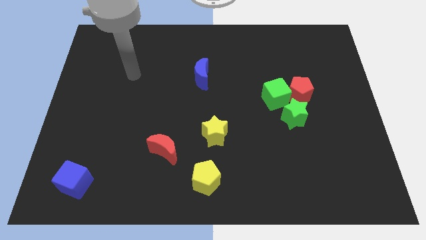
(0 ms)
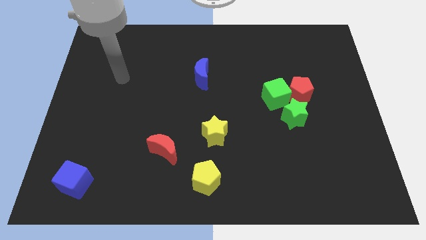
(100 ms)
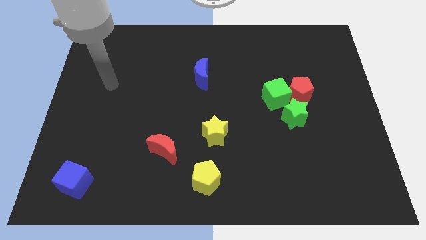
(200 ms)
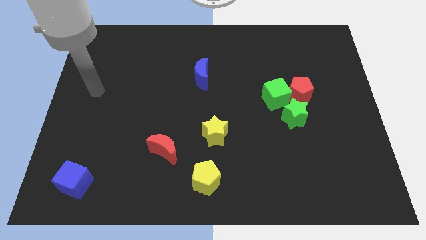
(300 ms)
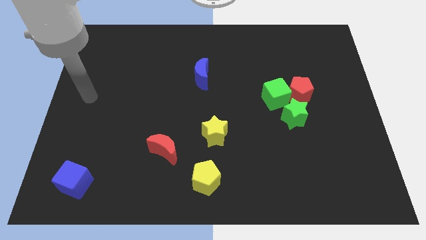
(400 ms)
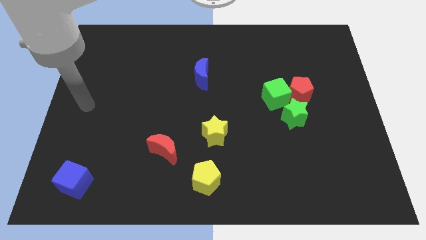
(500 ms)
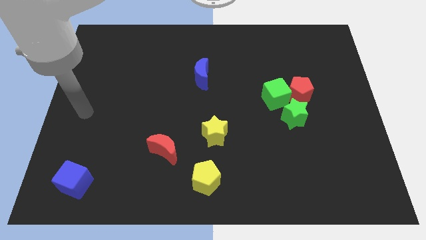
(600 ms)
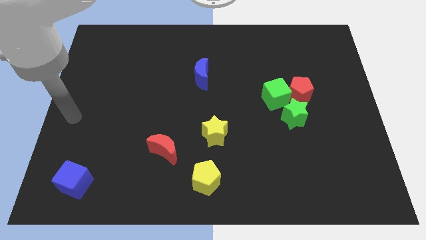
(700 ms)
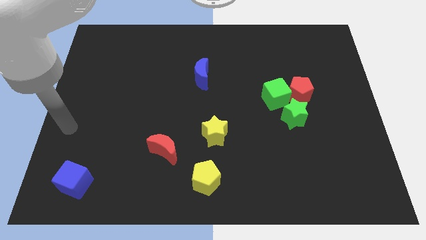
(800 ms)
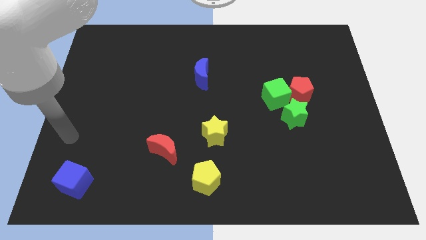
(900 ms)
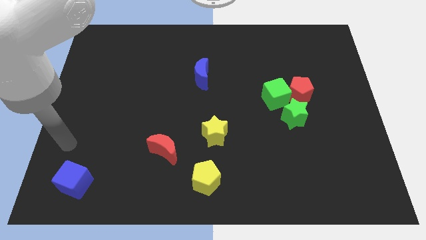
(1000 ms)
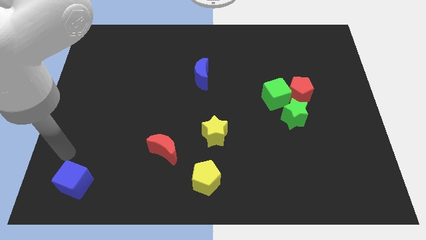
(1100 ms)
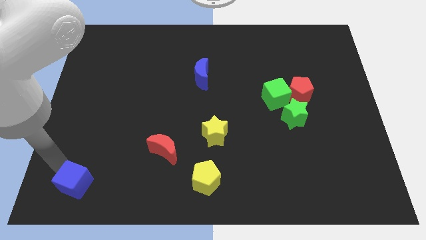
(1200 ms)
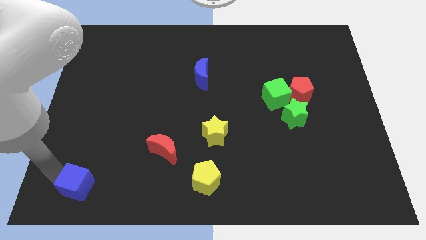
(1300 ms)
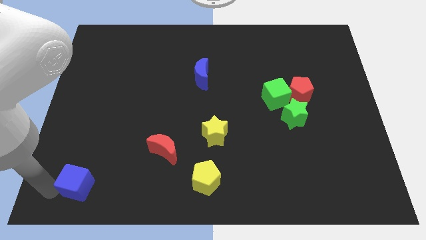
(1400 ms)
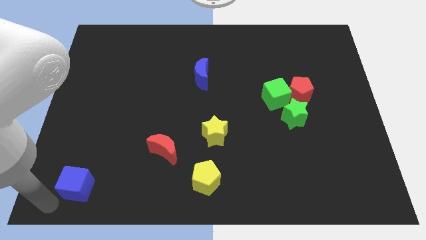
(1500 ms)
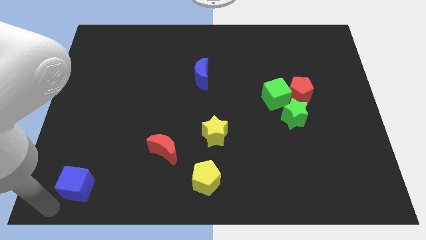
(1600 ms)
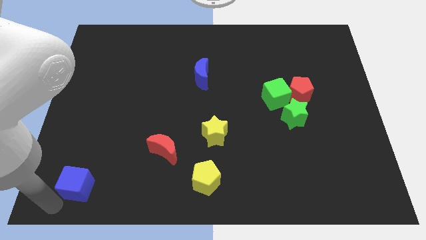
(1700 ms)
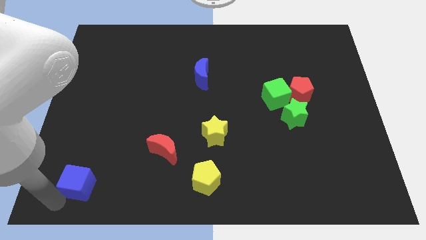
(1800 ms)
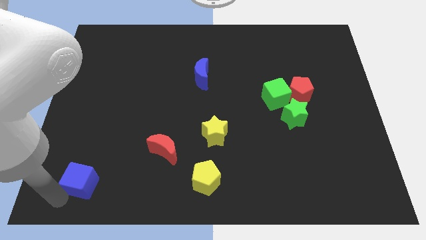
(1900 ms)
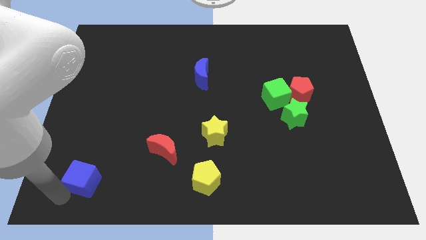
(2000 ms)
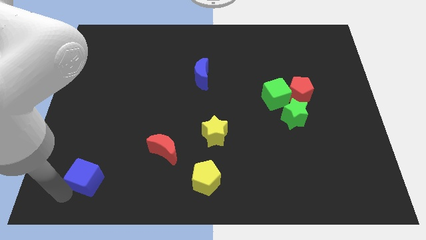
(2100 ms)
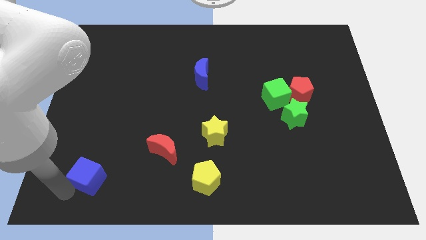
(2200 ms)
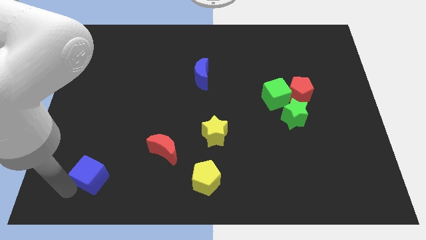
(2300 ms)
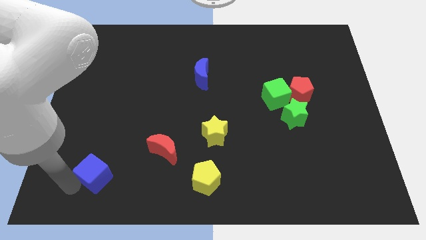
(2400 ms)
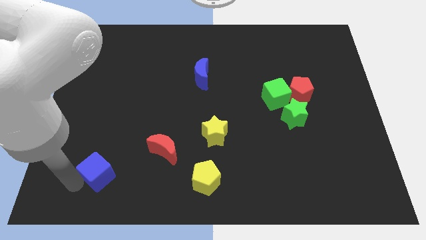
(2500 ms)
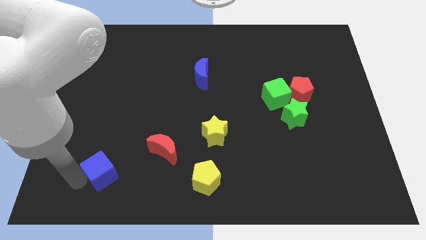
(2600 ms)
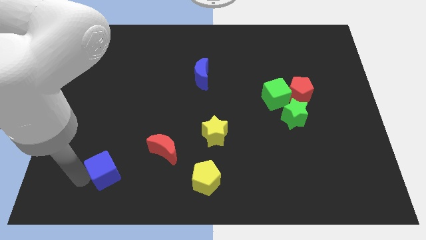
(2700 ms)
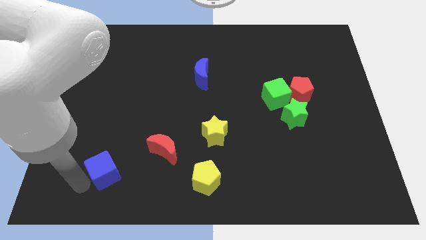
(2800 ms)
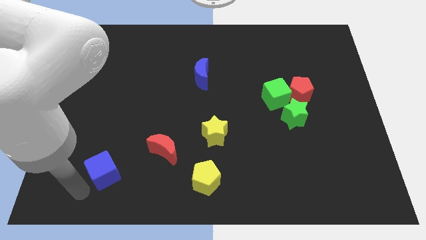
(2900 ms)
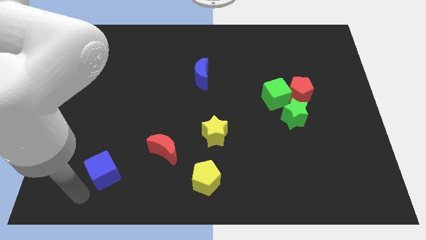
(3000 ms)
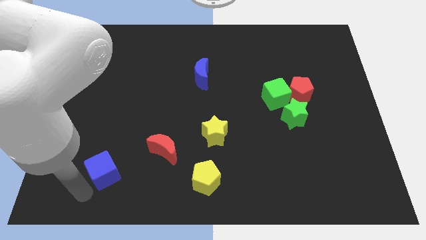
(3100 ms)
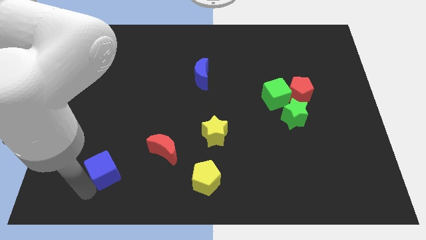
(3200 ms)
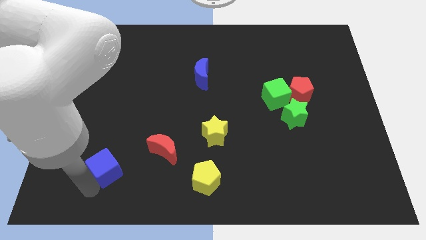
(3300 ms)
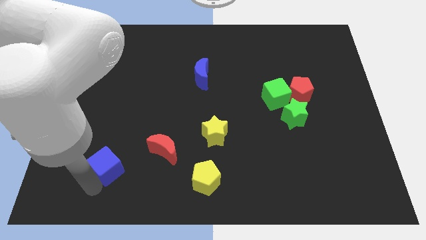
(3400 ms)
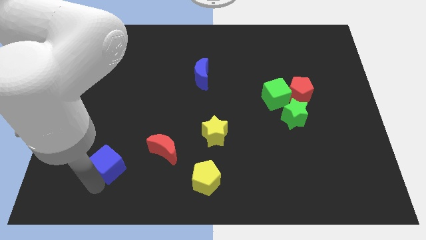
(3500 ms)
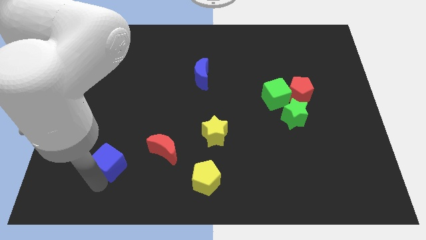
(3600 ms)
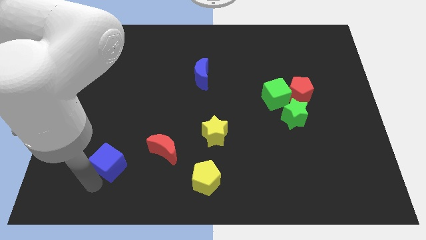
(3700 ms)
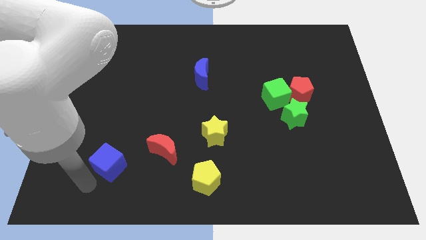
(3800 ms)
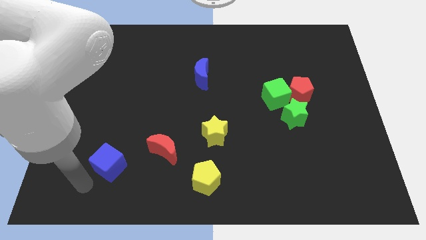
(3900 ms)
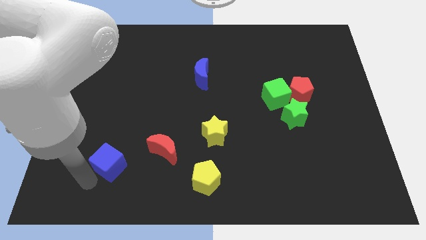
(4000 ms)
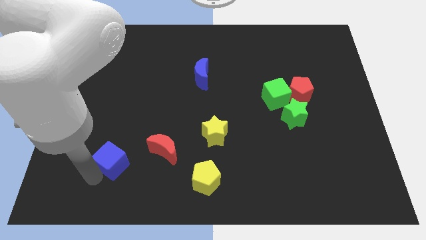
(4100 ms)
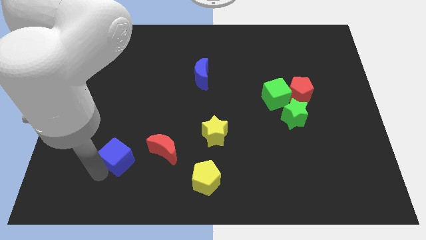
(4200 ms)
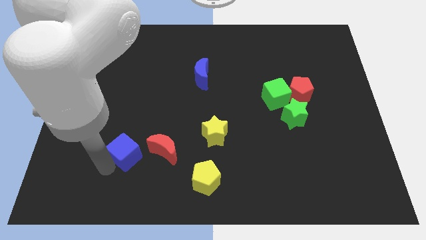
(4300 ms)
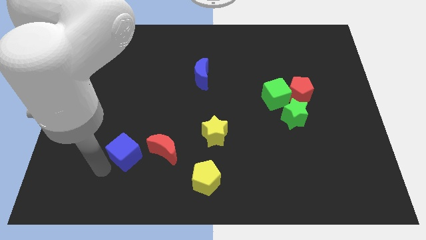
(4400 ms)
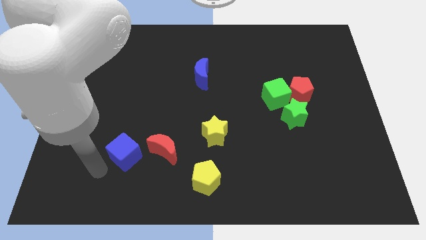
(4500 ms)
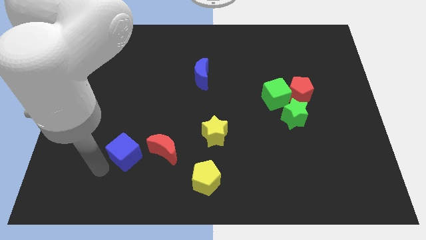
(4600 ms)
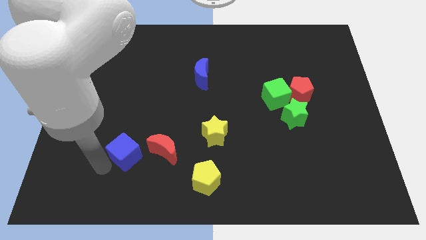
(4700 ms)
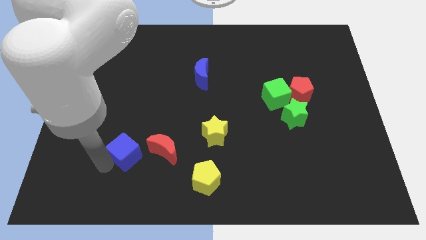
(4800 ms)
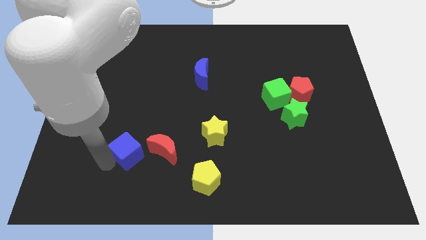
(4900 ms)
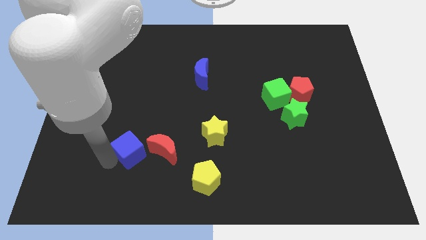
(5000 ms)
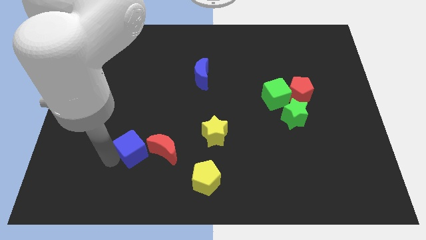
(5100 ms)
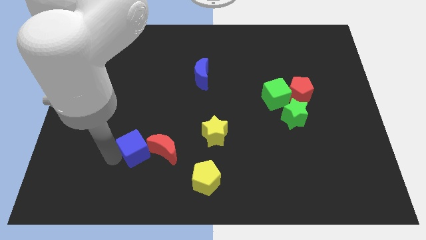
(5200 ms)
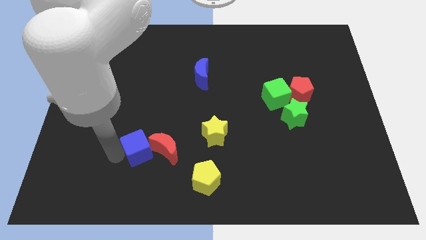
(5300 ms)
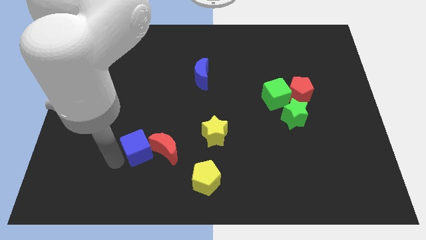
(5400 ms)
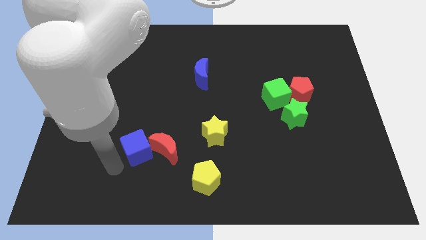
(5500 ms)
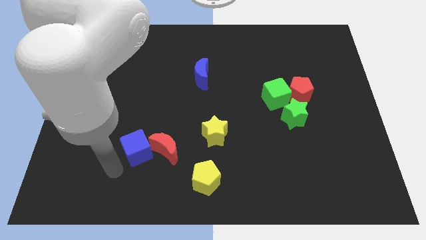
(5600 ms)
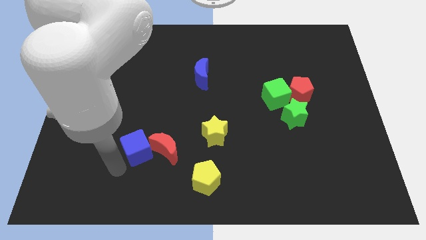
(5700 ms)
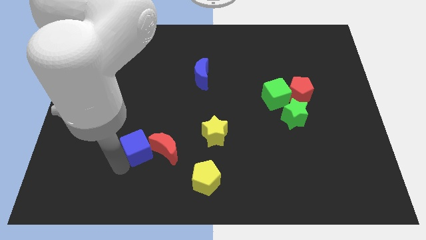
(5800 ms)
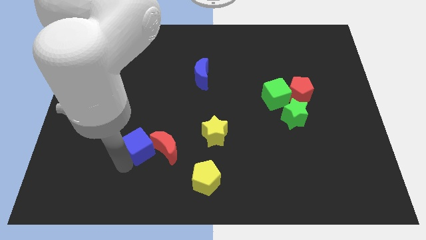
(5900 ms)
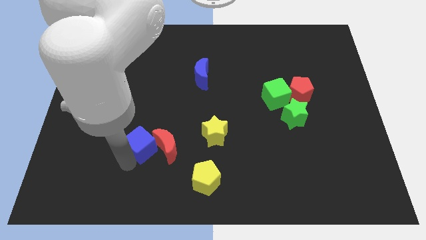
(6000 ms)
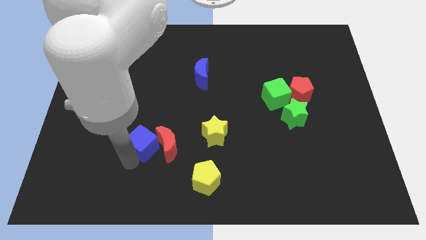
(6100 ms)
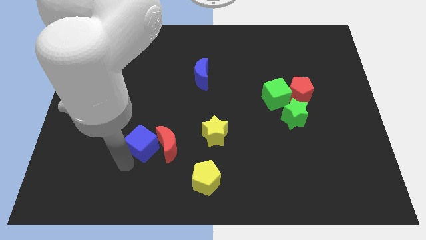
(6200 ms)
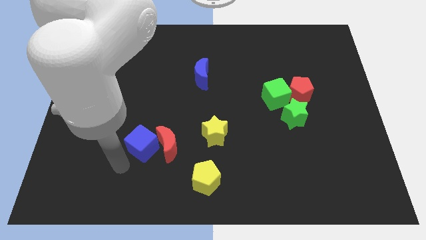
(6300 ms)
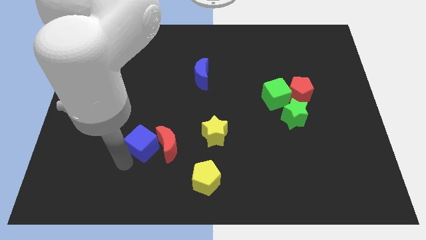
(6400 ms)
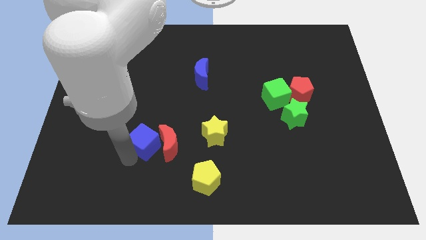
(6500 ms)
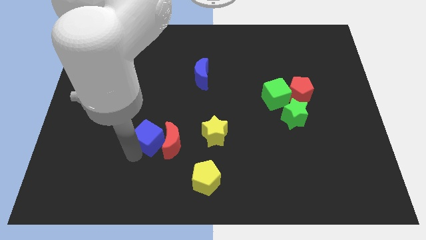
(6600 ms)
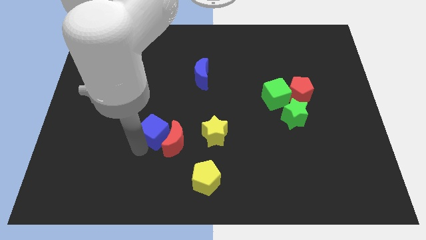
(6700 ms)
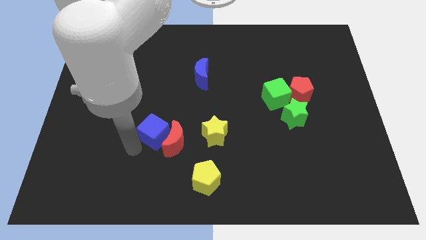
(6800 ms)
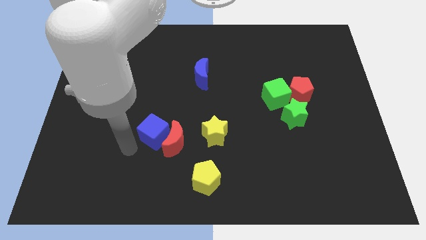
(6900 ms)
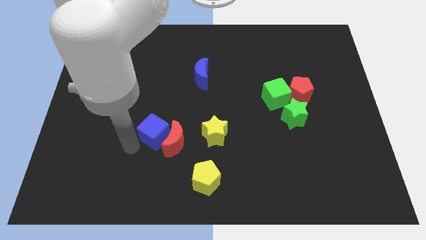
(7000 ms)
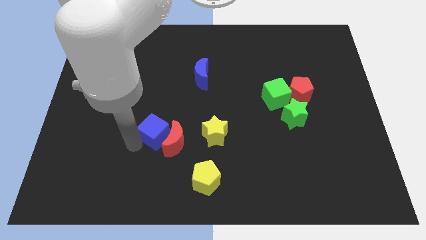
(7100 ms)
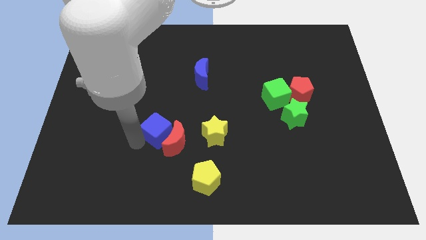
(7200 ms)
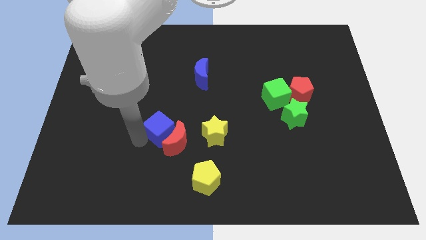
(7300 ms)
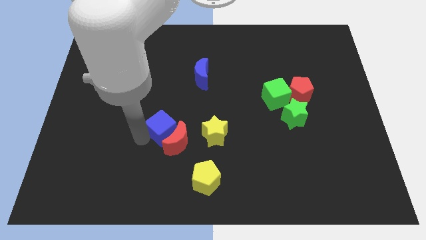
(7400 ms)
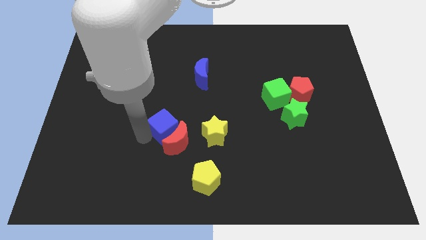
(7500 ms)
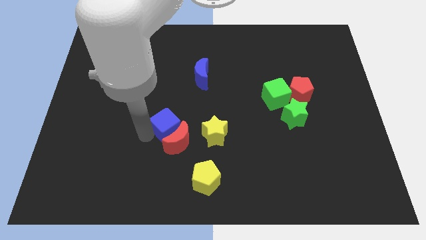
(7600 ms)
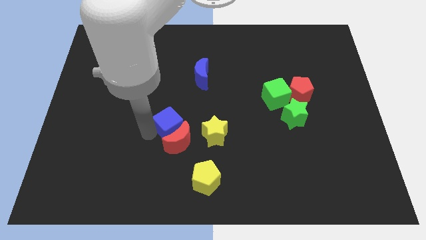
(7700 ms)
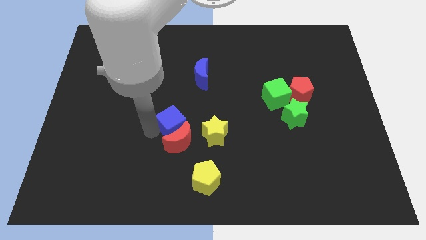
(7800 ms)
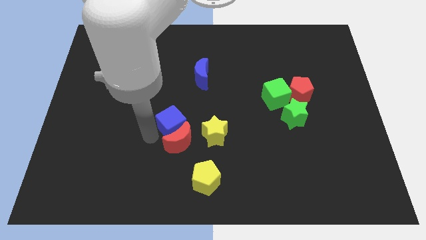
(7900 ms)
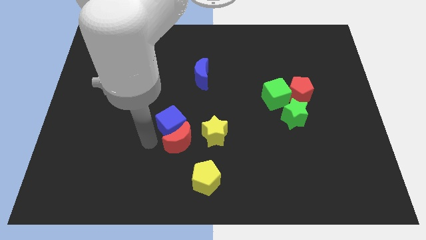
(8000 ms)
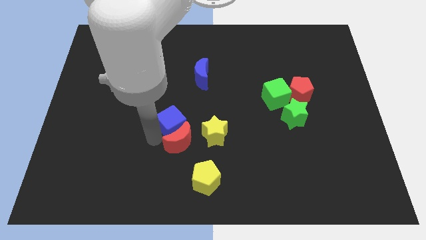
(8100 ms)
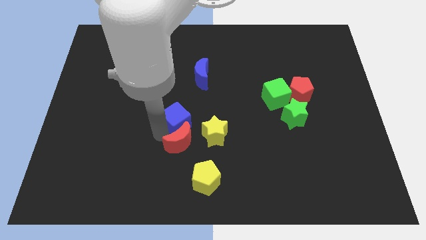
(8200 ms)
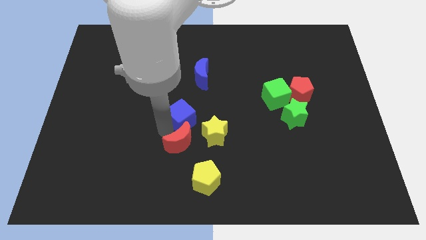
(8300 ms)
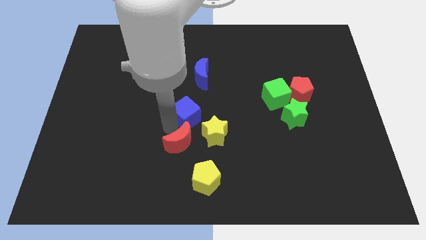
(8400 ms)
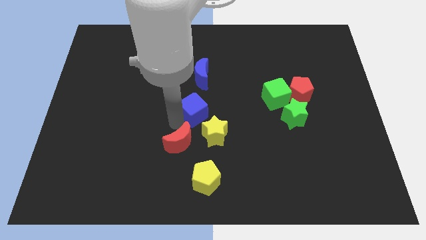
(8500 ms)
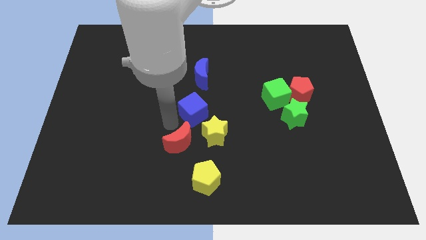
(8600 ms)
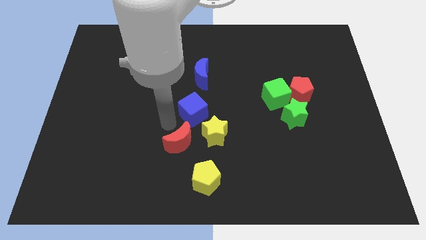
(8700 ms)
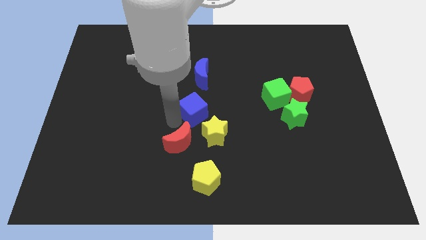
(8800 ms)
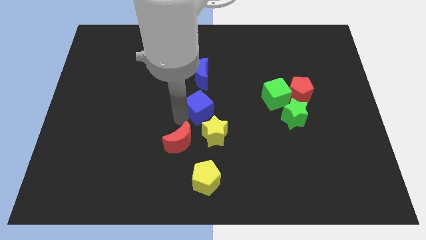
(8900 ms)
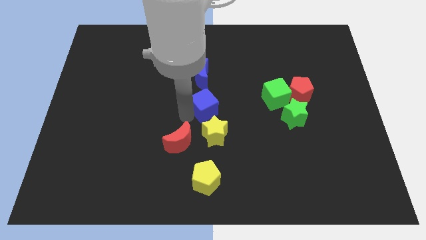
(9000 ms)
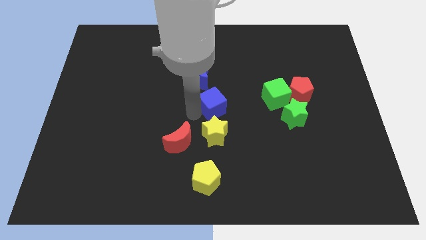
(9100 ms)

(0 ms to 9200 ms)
move the blue cube to the bottom right of the blue moon
